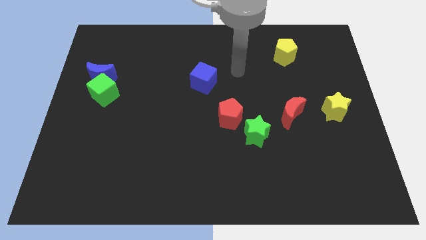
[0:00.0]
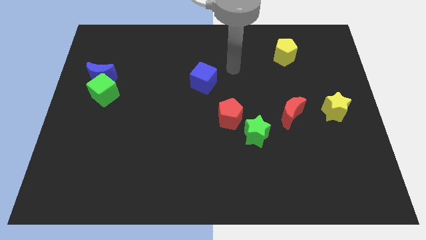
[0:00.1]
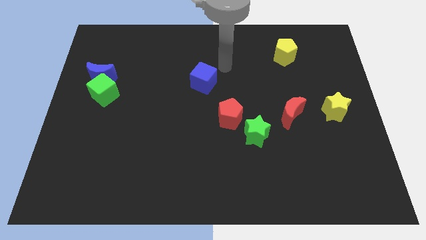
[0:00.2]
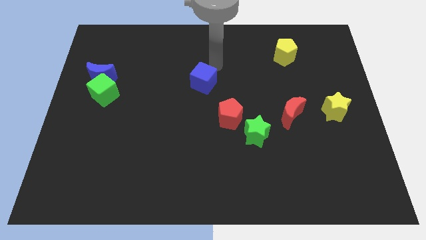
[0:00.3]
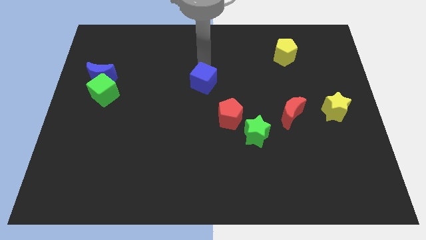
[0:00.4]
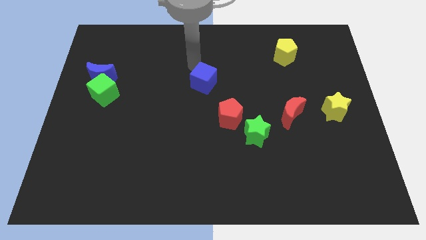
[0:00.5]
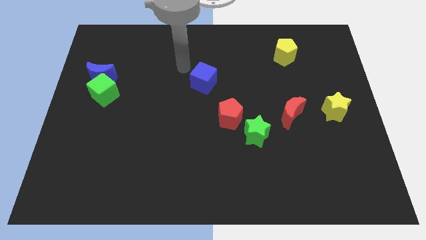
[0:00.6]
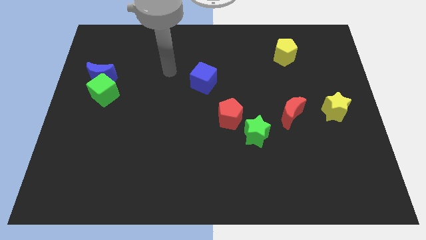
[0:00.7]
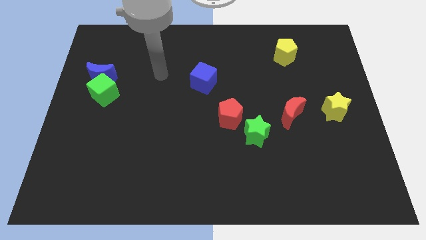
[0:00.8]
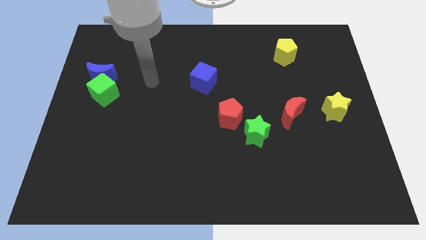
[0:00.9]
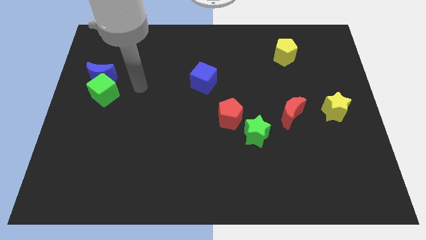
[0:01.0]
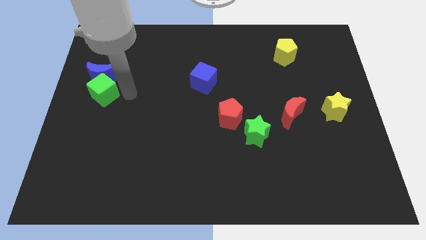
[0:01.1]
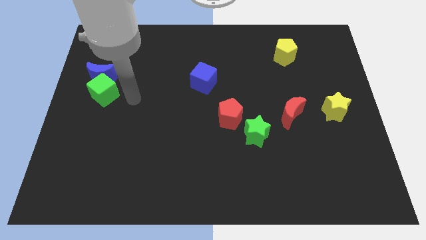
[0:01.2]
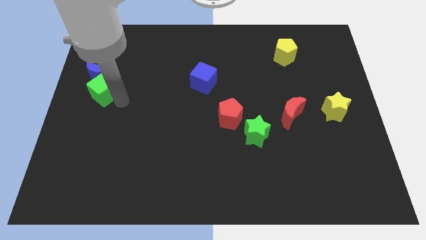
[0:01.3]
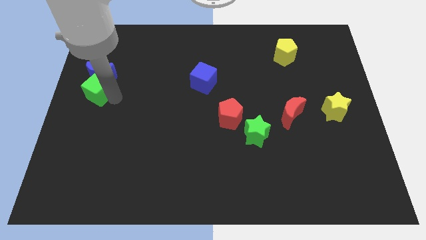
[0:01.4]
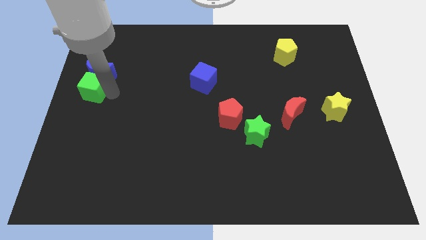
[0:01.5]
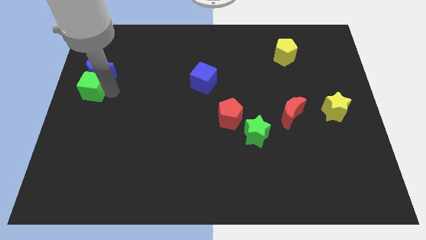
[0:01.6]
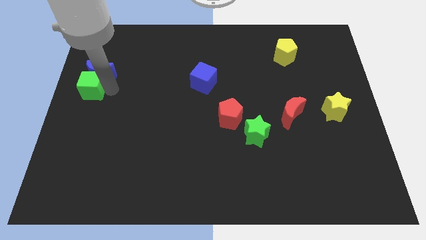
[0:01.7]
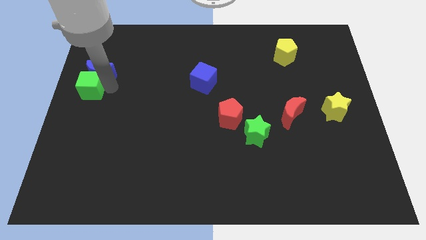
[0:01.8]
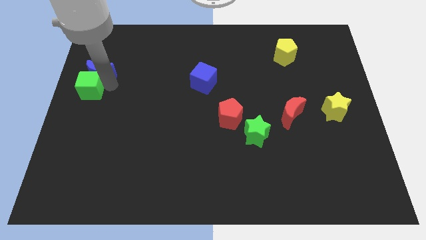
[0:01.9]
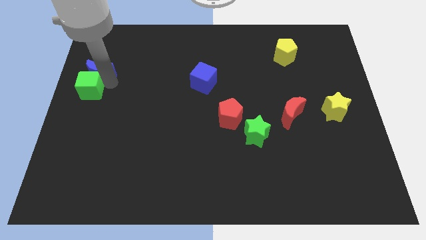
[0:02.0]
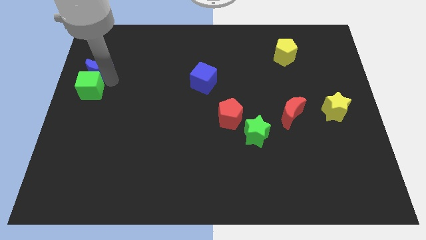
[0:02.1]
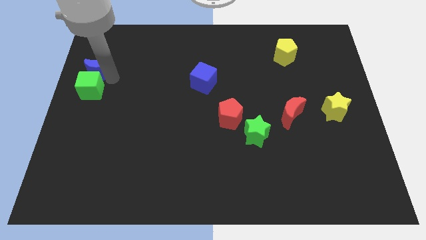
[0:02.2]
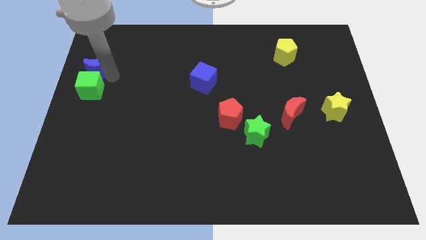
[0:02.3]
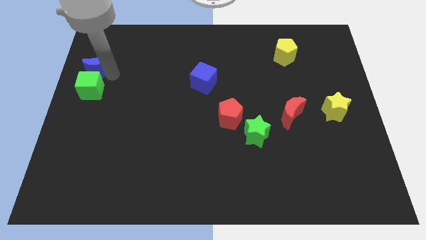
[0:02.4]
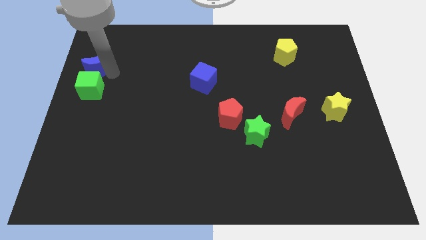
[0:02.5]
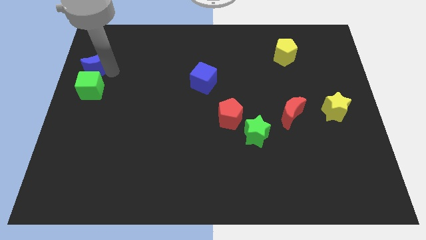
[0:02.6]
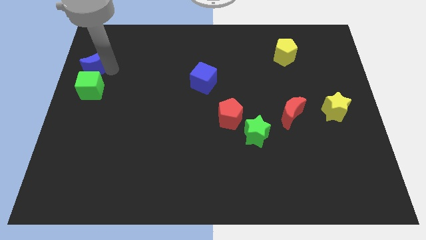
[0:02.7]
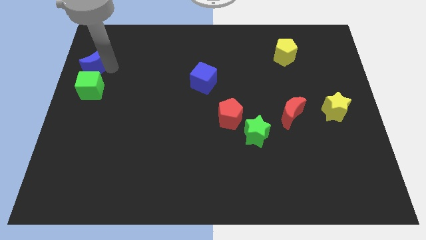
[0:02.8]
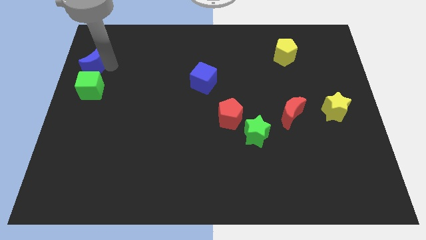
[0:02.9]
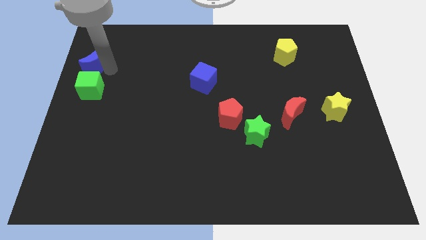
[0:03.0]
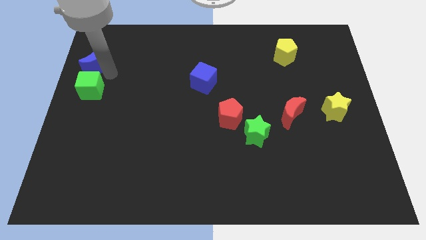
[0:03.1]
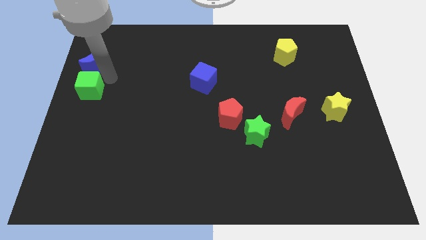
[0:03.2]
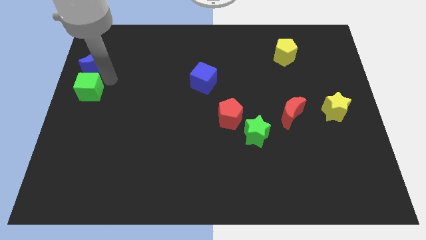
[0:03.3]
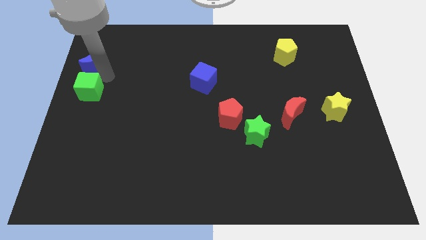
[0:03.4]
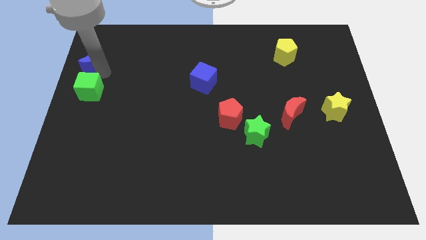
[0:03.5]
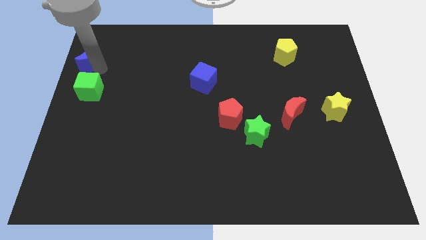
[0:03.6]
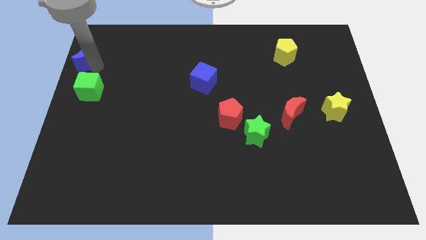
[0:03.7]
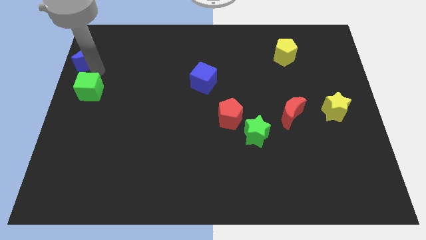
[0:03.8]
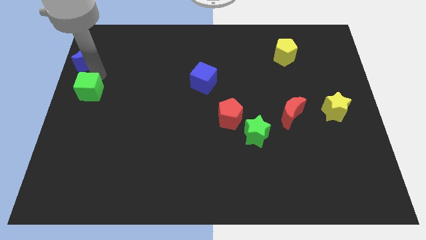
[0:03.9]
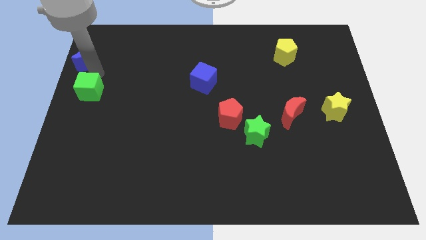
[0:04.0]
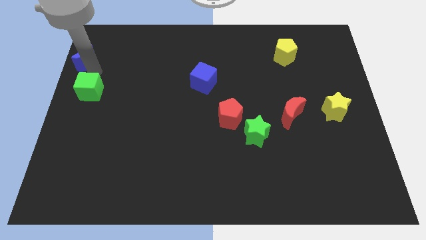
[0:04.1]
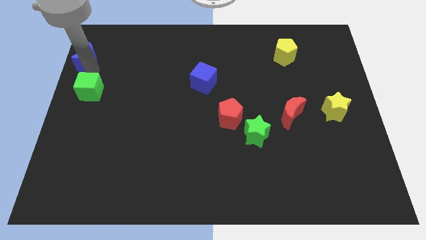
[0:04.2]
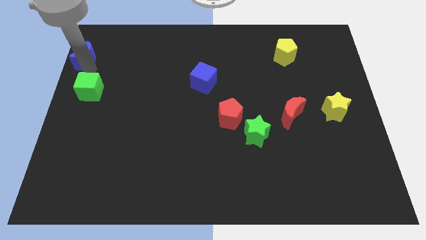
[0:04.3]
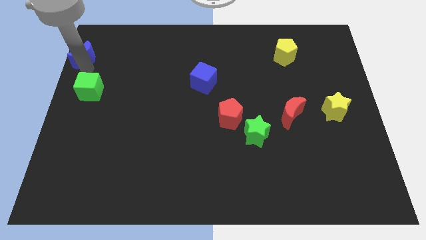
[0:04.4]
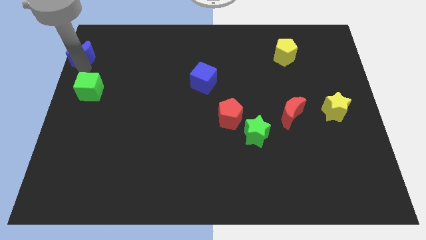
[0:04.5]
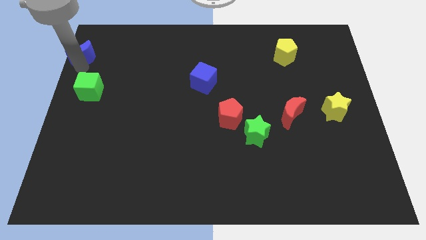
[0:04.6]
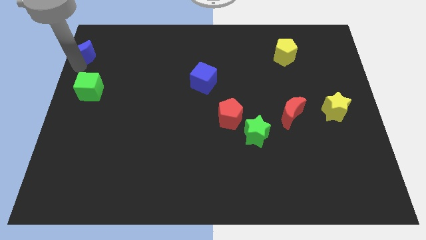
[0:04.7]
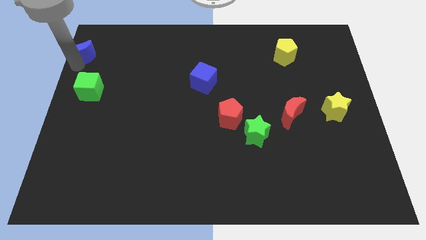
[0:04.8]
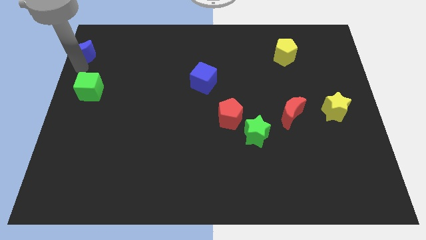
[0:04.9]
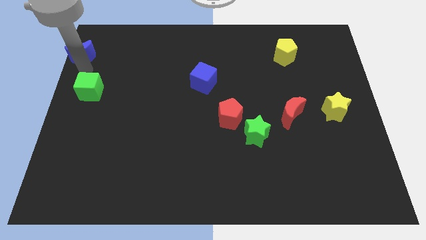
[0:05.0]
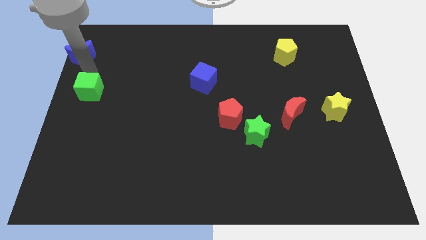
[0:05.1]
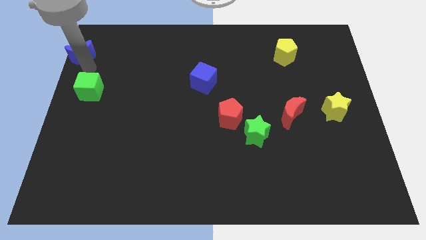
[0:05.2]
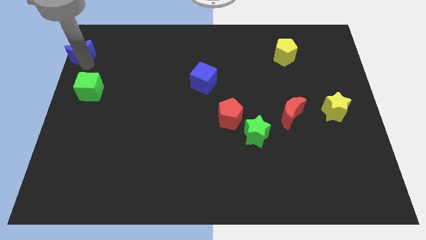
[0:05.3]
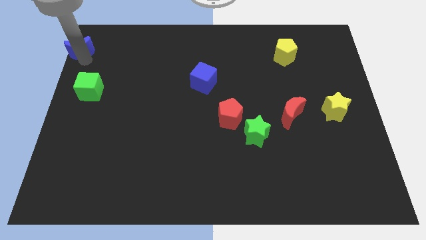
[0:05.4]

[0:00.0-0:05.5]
slide the blue moon to the top left of the board

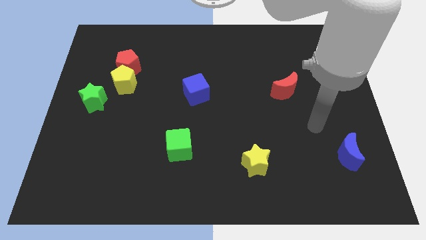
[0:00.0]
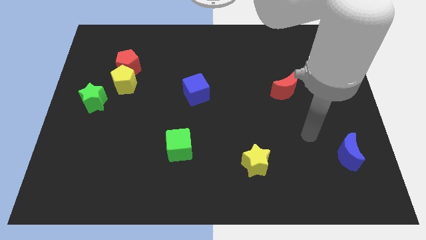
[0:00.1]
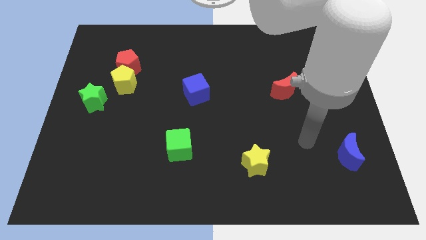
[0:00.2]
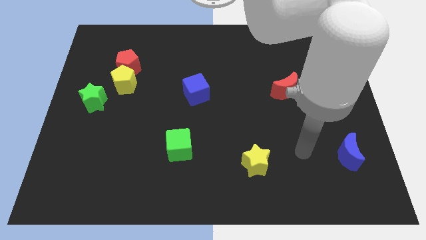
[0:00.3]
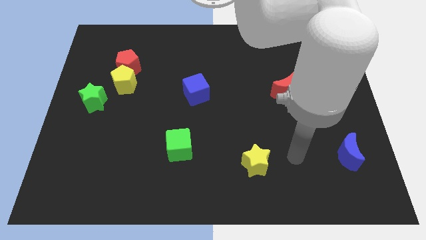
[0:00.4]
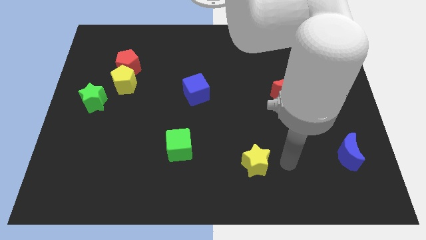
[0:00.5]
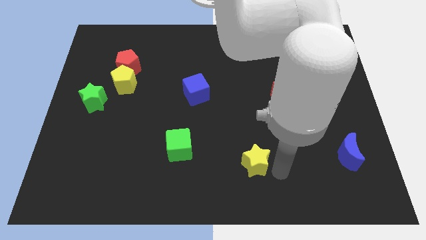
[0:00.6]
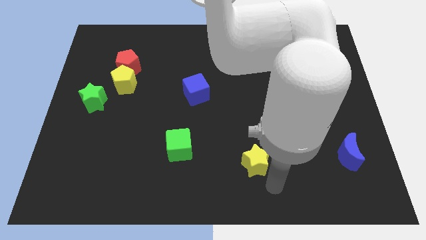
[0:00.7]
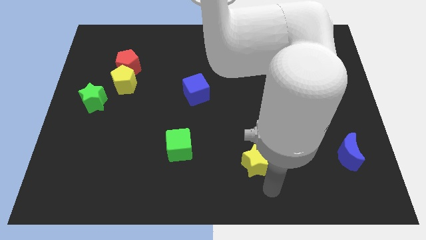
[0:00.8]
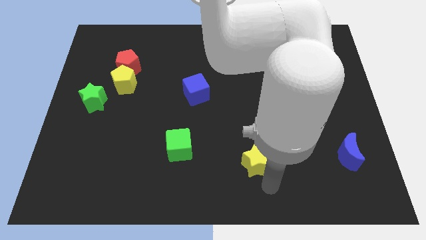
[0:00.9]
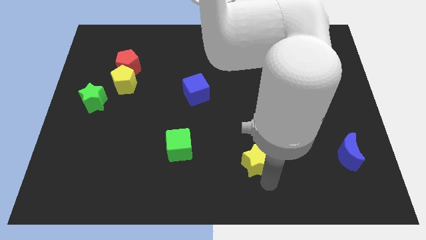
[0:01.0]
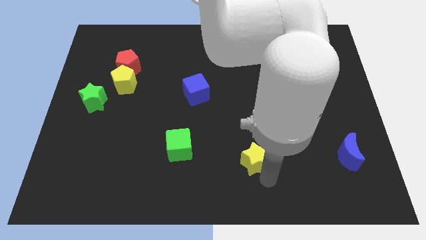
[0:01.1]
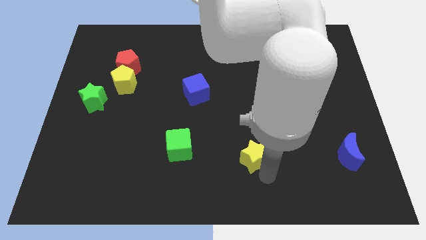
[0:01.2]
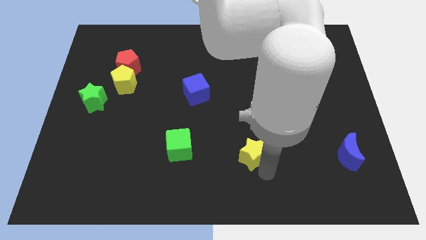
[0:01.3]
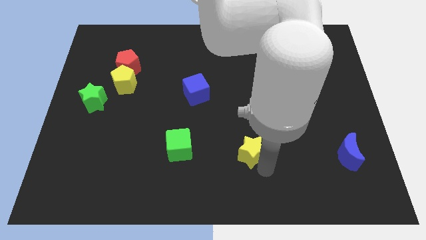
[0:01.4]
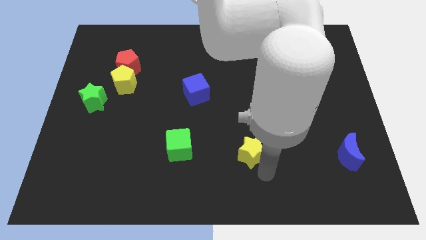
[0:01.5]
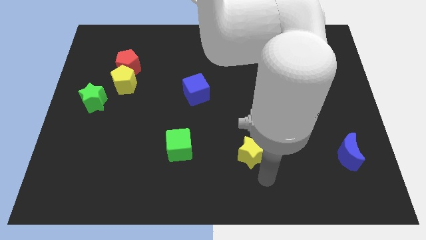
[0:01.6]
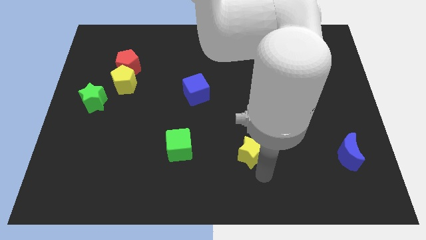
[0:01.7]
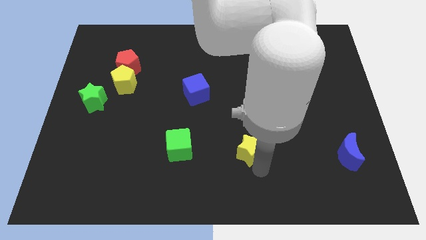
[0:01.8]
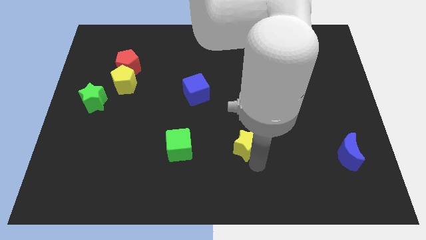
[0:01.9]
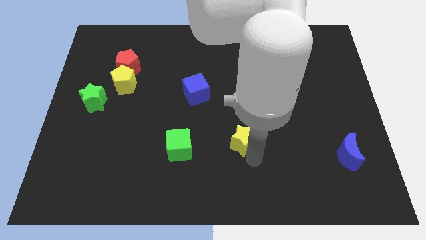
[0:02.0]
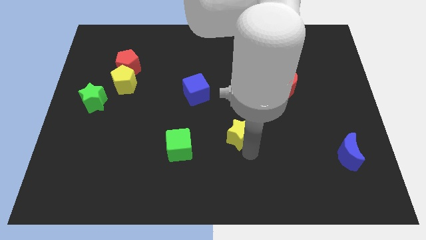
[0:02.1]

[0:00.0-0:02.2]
move the yellow star to the middle

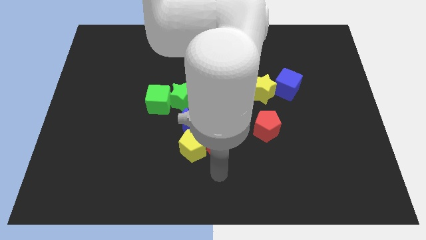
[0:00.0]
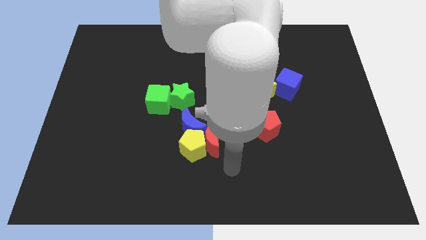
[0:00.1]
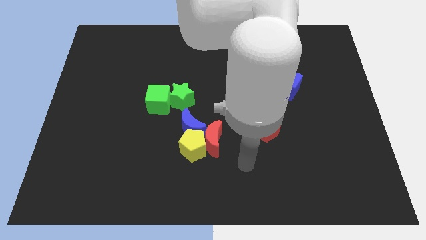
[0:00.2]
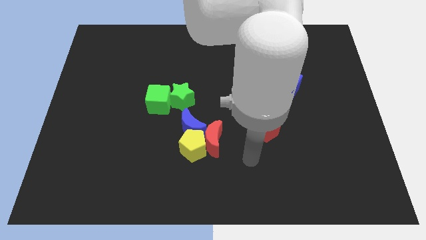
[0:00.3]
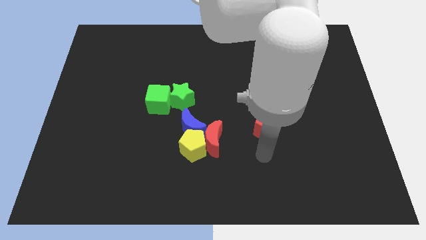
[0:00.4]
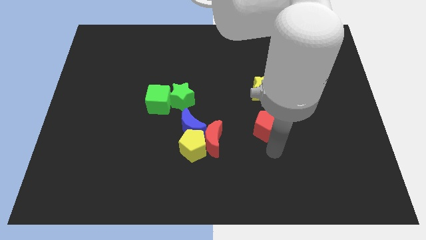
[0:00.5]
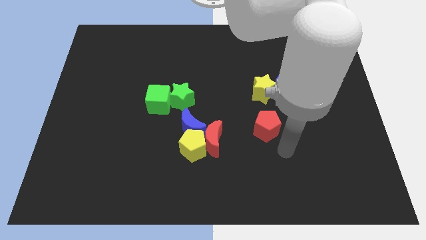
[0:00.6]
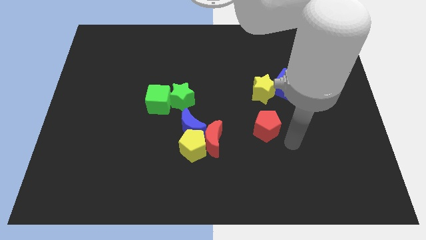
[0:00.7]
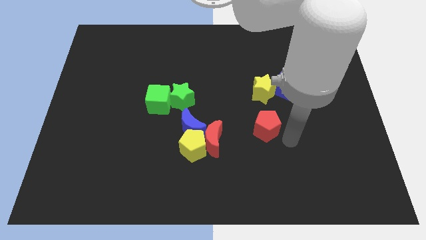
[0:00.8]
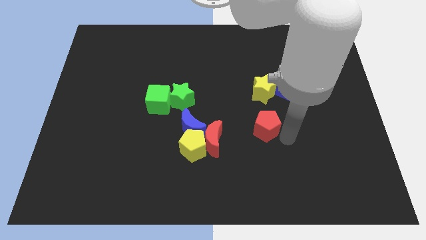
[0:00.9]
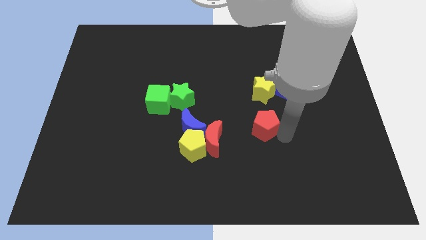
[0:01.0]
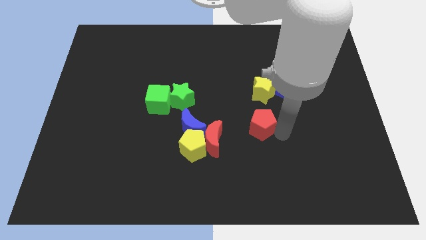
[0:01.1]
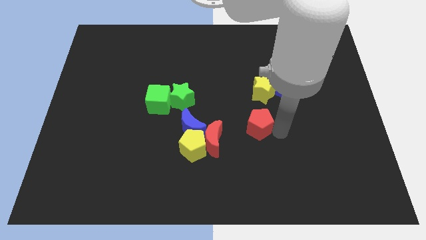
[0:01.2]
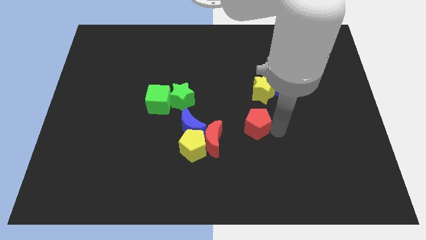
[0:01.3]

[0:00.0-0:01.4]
move the red pentagon to the middle
